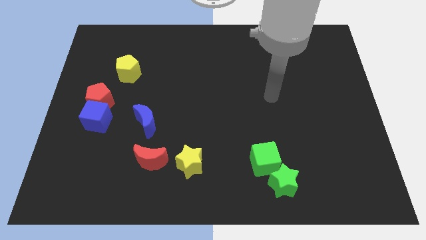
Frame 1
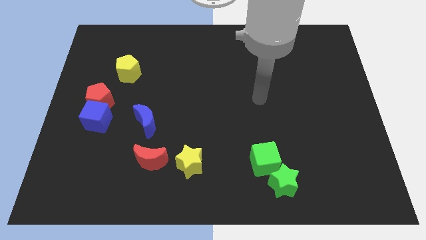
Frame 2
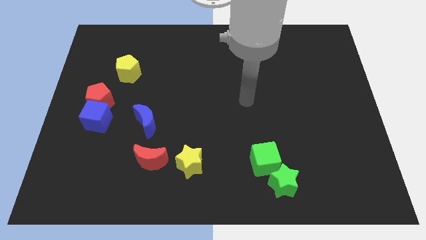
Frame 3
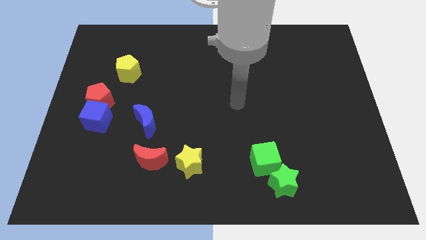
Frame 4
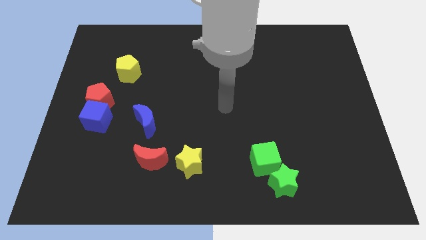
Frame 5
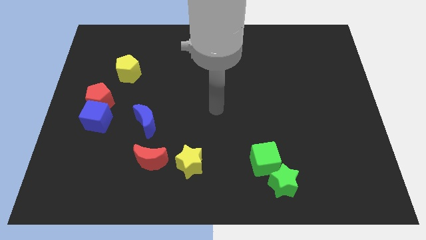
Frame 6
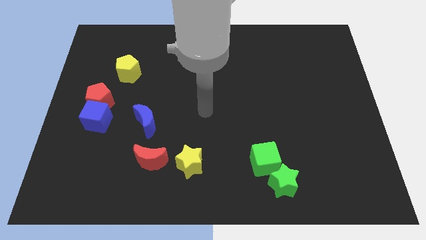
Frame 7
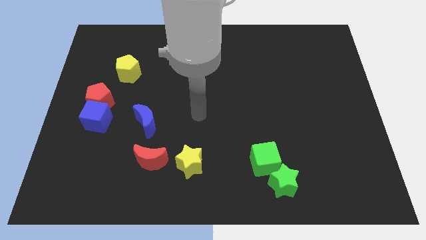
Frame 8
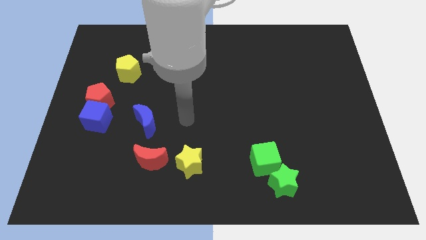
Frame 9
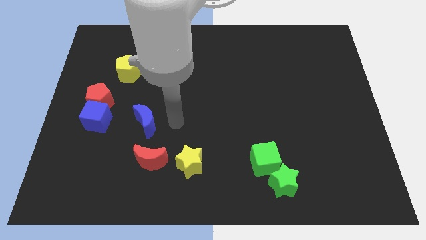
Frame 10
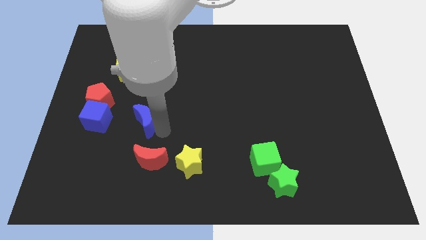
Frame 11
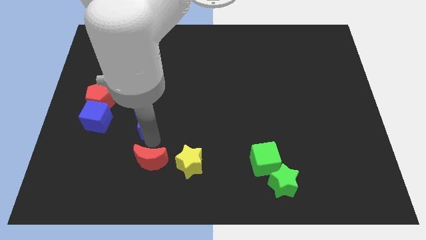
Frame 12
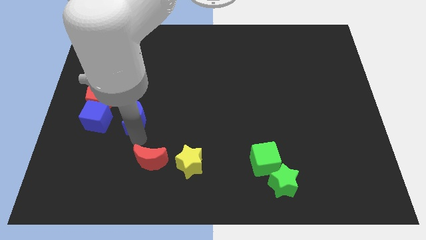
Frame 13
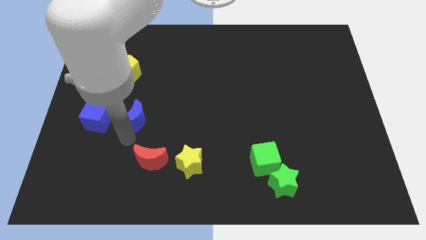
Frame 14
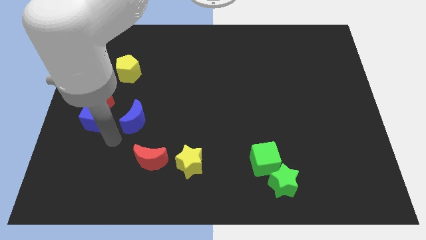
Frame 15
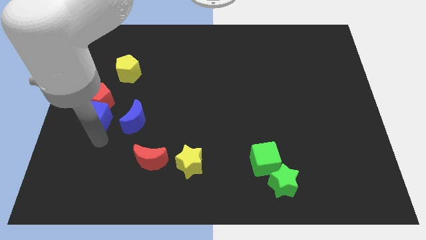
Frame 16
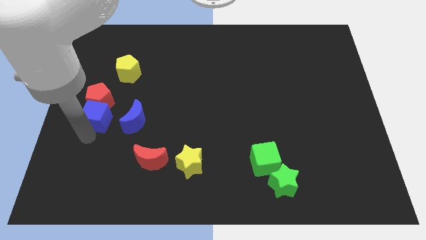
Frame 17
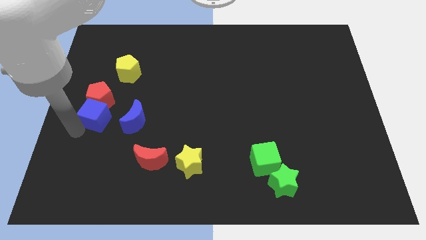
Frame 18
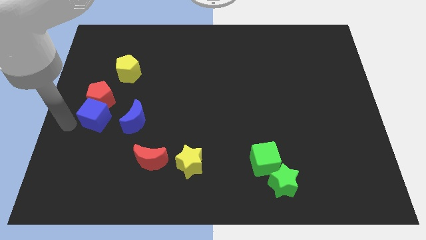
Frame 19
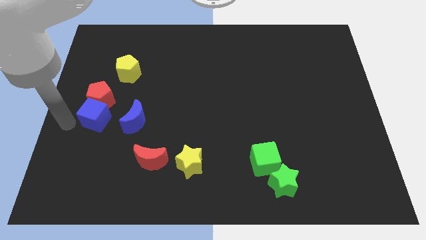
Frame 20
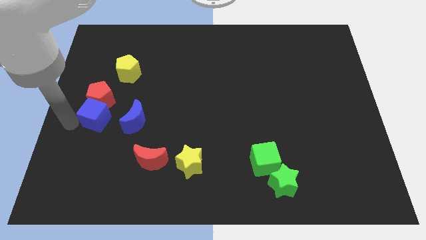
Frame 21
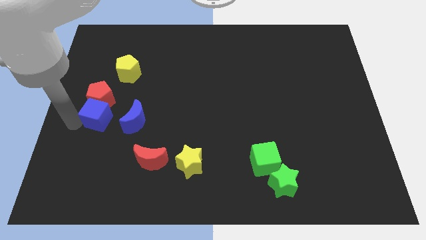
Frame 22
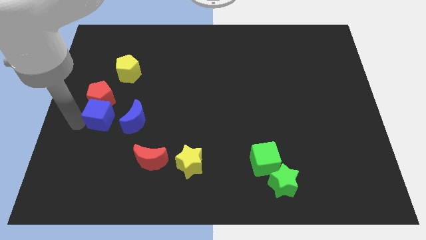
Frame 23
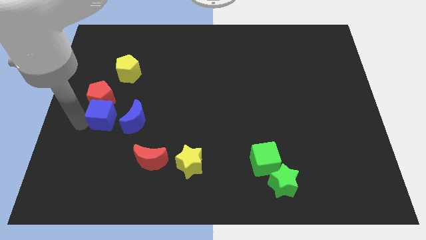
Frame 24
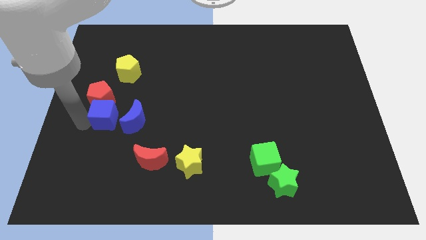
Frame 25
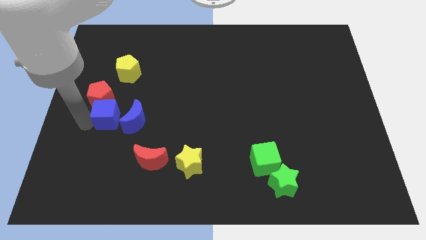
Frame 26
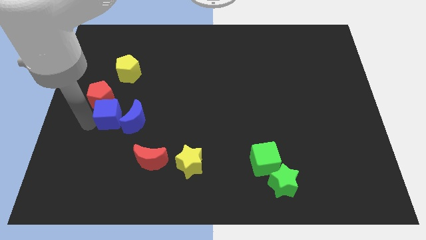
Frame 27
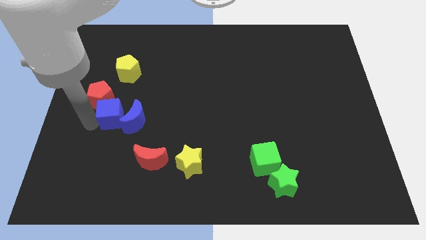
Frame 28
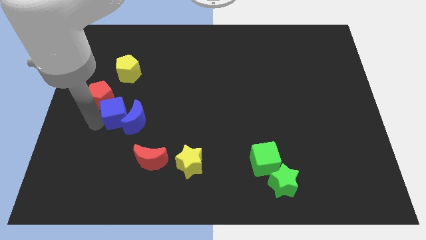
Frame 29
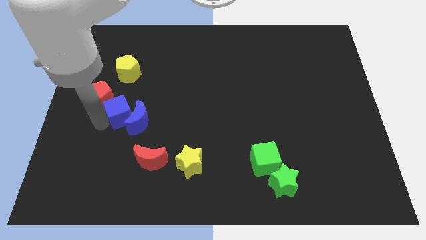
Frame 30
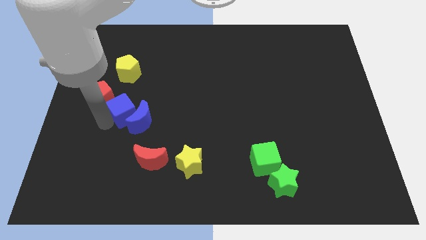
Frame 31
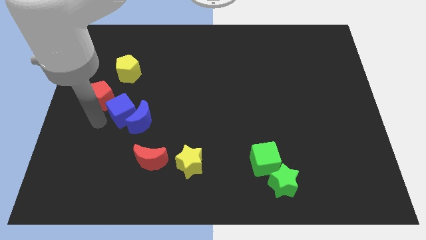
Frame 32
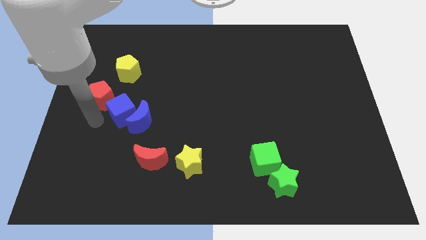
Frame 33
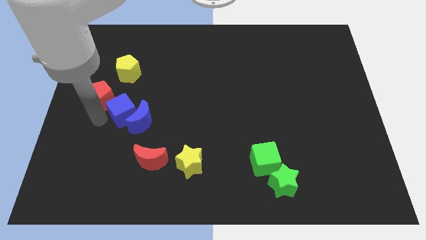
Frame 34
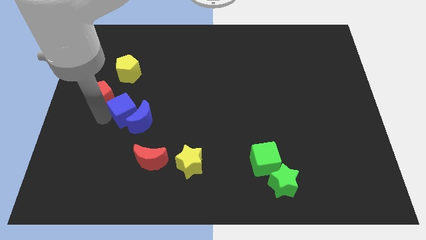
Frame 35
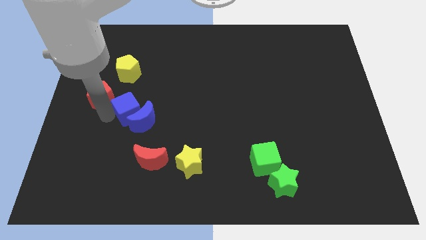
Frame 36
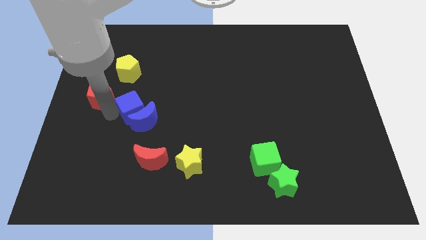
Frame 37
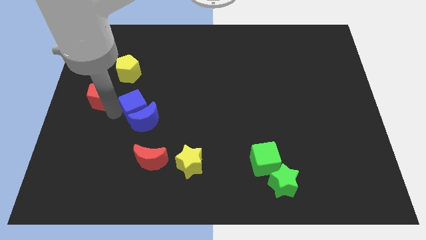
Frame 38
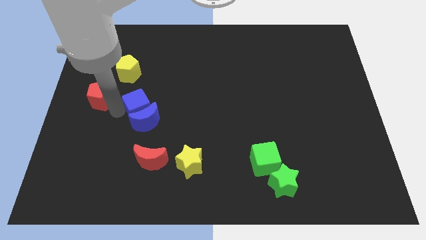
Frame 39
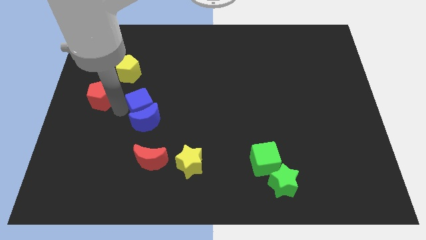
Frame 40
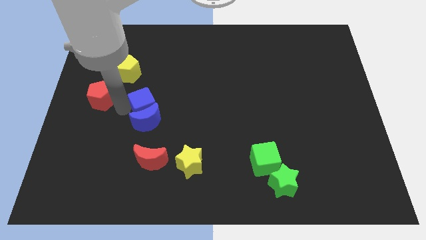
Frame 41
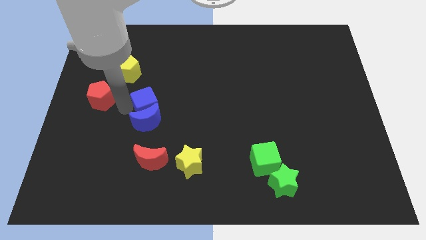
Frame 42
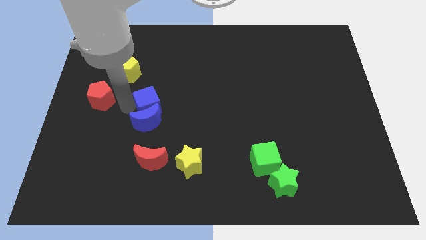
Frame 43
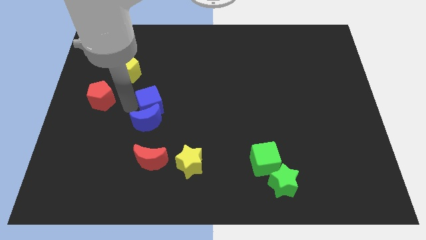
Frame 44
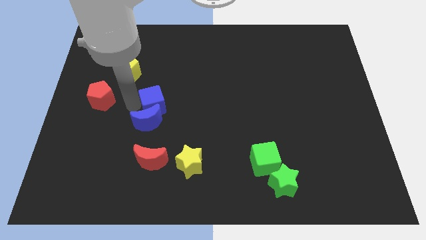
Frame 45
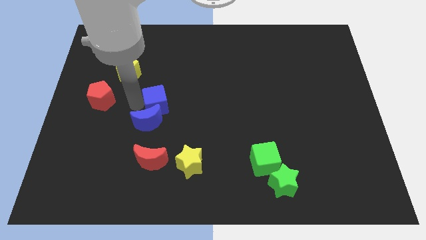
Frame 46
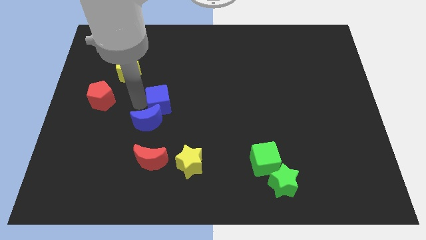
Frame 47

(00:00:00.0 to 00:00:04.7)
move the blue cube to the center of the board

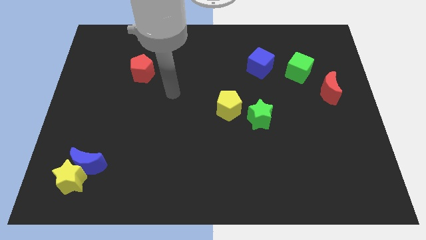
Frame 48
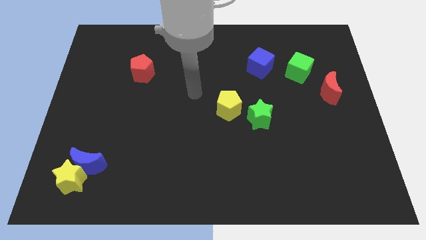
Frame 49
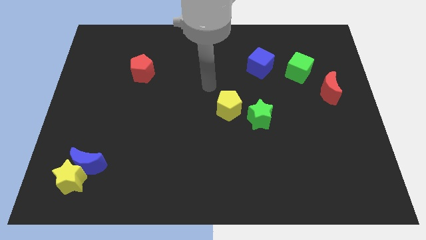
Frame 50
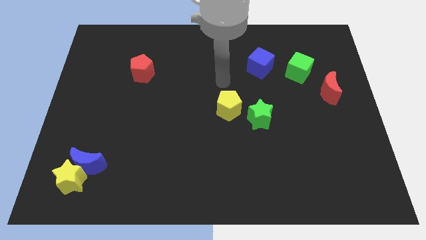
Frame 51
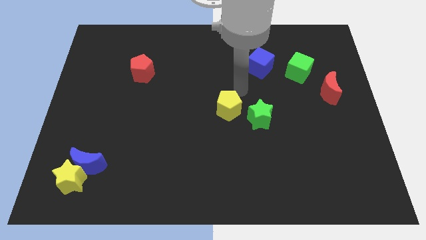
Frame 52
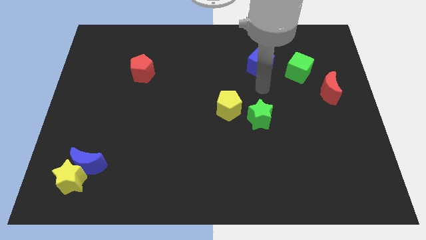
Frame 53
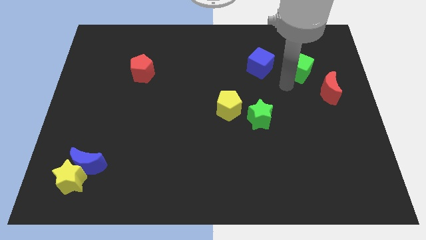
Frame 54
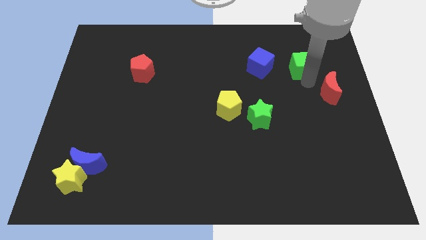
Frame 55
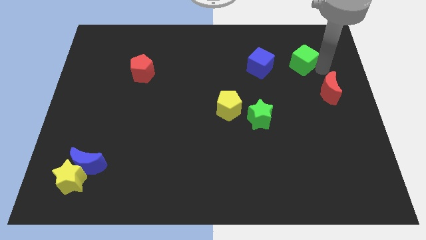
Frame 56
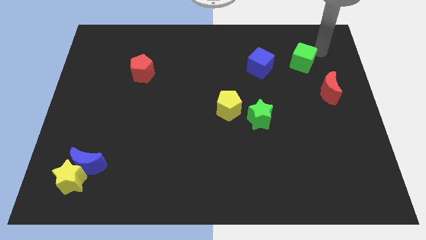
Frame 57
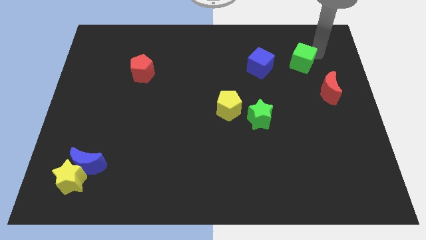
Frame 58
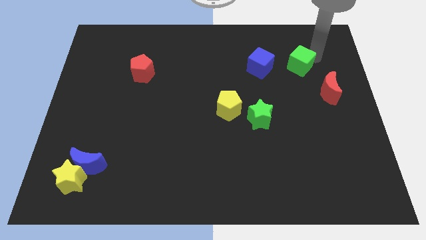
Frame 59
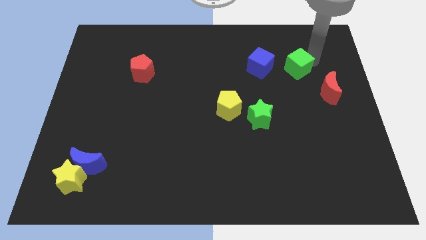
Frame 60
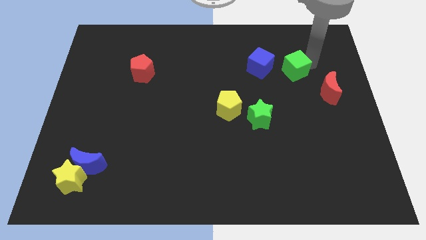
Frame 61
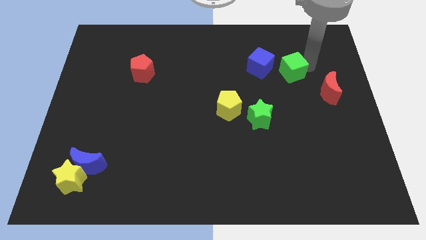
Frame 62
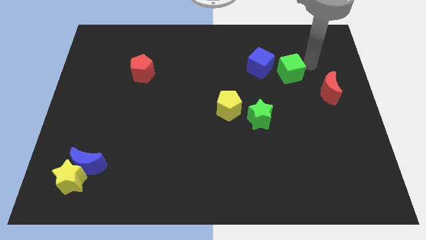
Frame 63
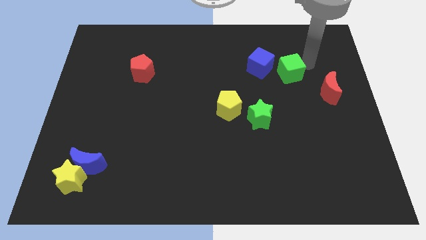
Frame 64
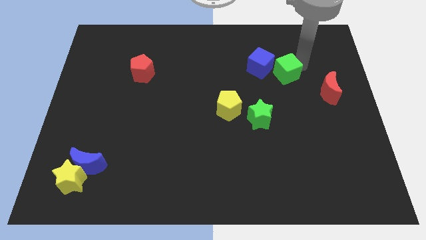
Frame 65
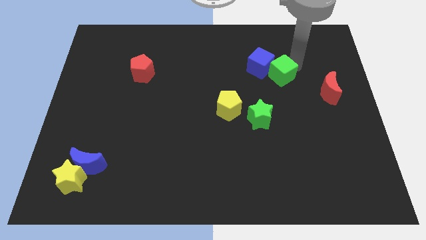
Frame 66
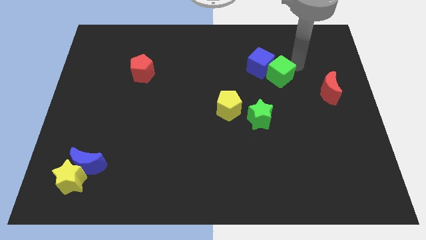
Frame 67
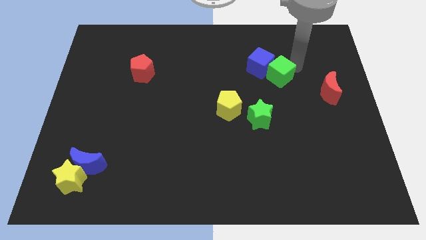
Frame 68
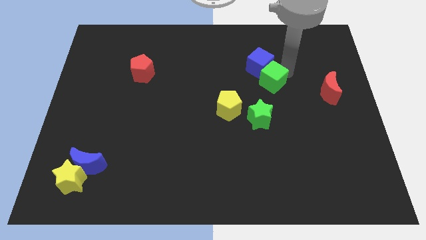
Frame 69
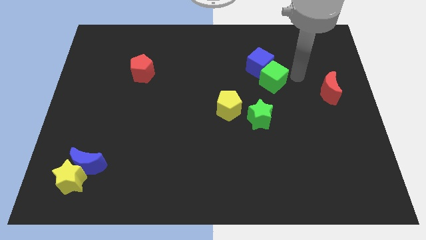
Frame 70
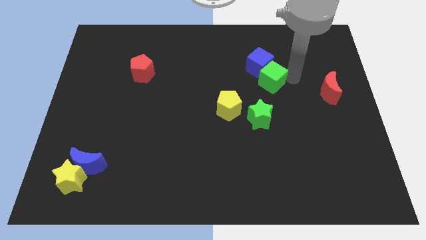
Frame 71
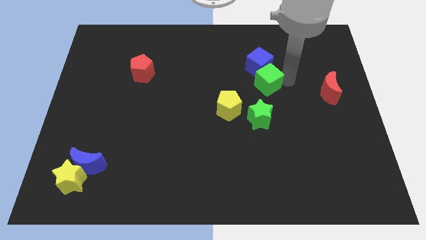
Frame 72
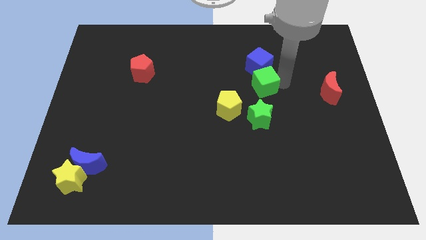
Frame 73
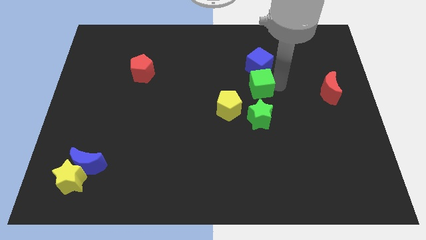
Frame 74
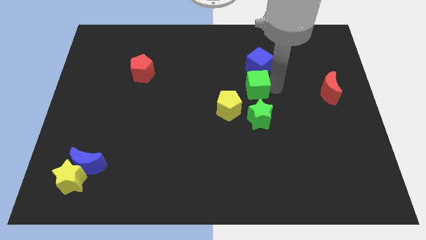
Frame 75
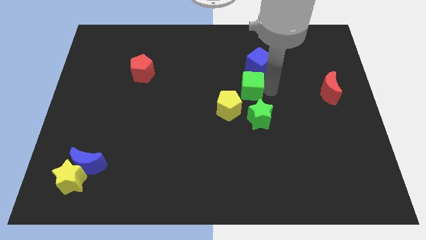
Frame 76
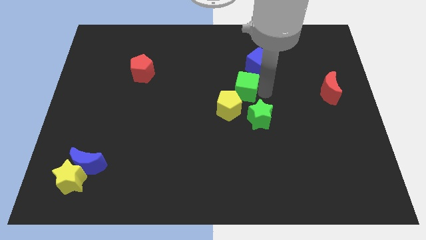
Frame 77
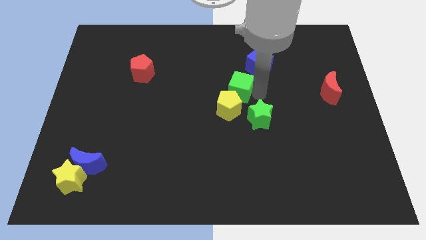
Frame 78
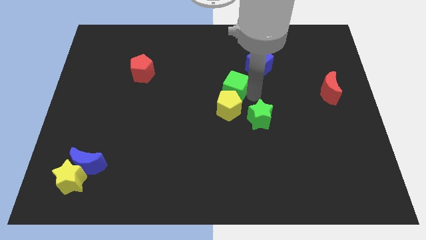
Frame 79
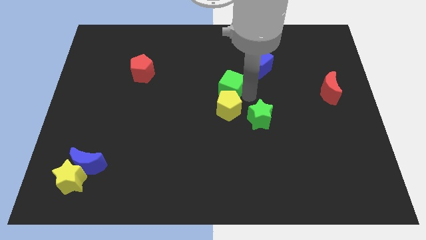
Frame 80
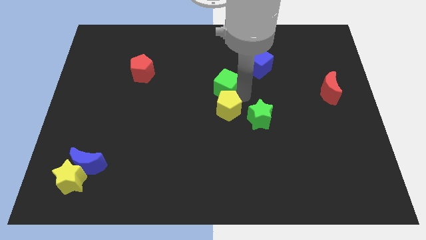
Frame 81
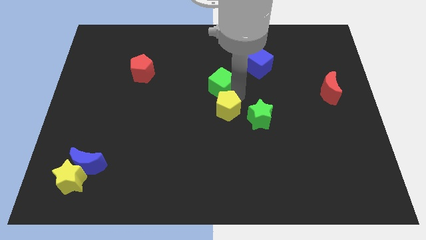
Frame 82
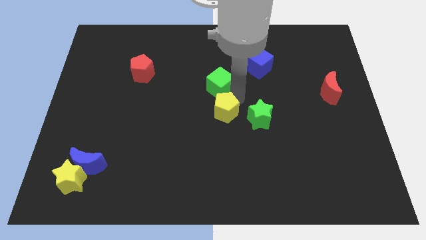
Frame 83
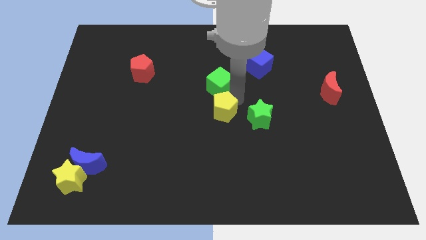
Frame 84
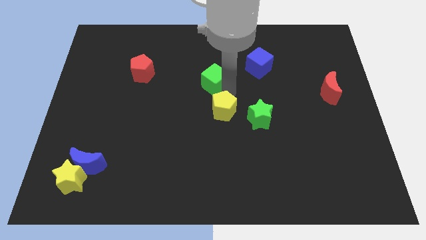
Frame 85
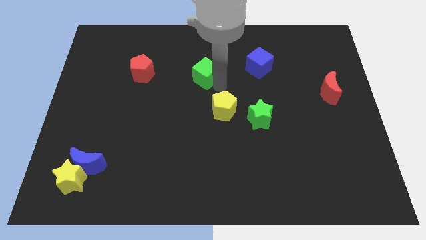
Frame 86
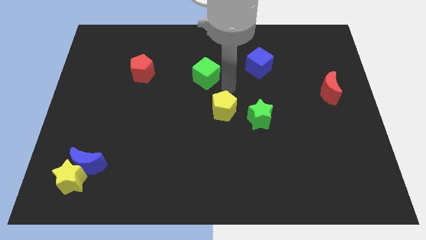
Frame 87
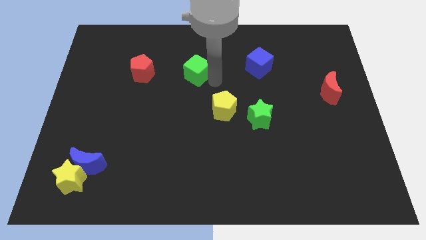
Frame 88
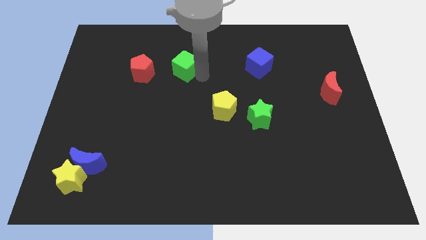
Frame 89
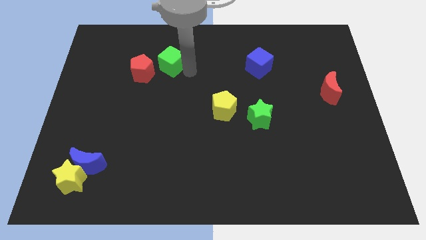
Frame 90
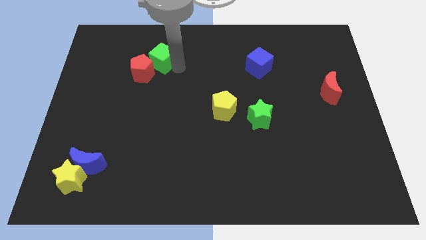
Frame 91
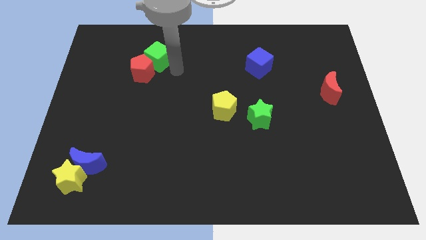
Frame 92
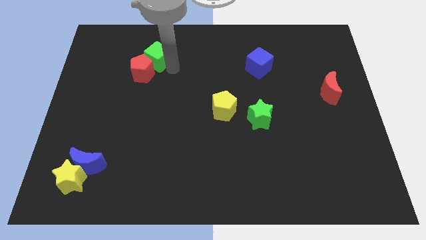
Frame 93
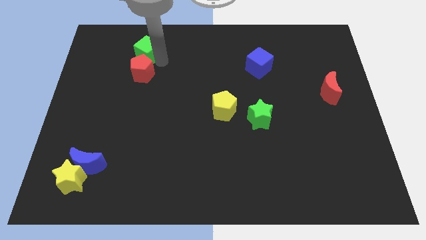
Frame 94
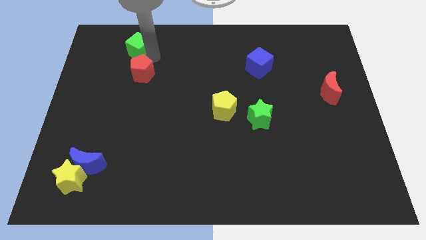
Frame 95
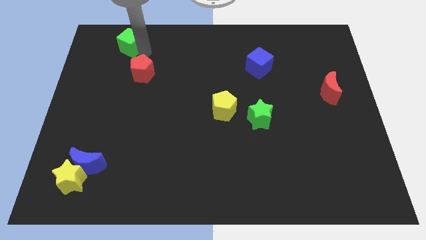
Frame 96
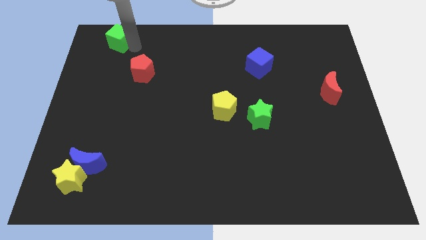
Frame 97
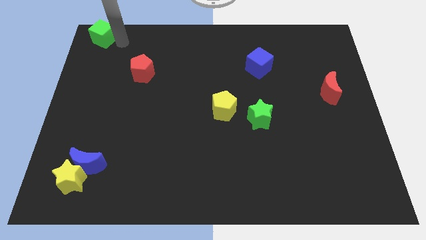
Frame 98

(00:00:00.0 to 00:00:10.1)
move the green cube to the top left of the board
